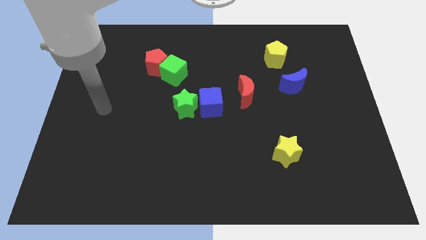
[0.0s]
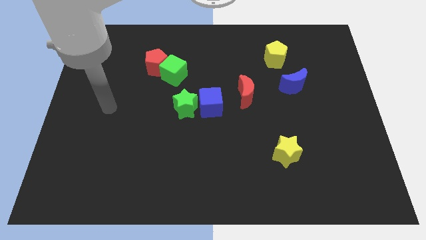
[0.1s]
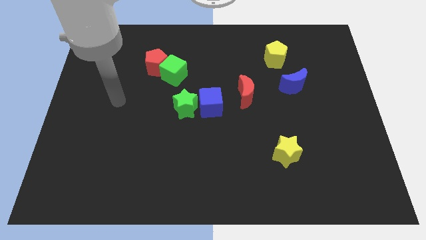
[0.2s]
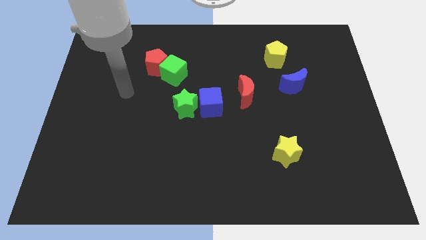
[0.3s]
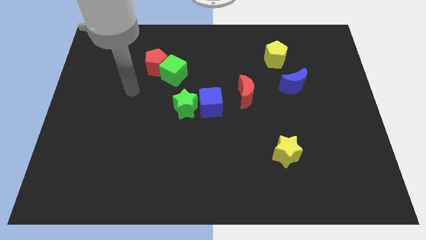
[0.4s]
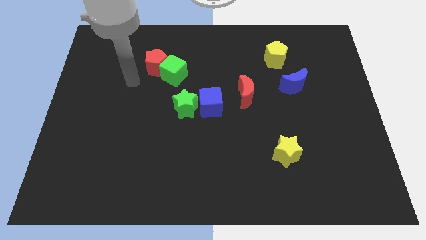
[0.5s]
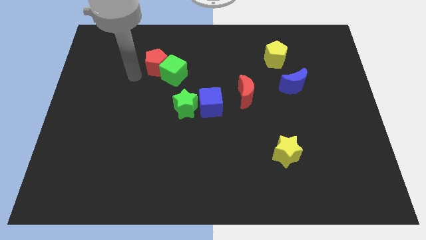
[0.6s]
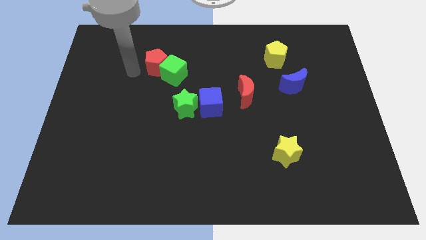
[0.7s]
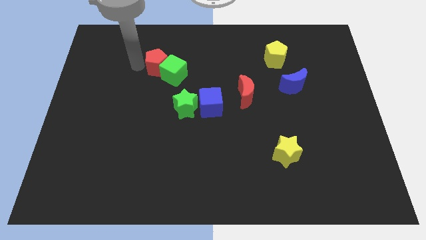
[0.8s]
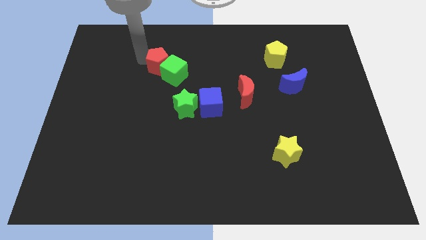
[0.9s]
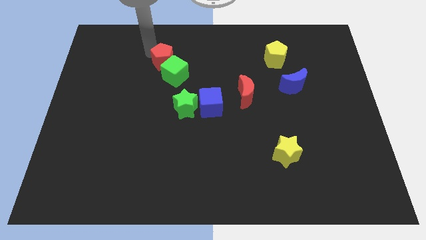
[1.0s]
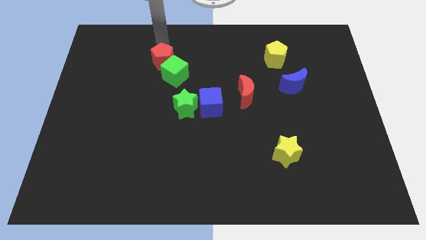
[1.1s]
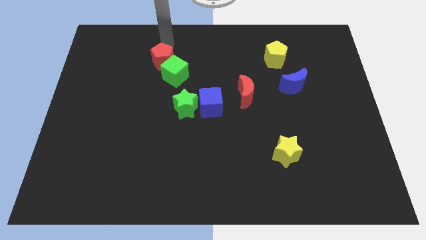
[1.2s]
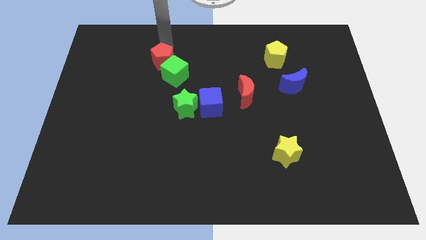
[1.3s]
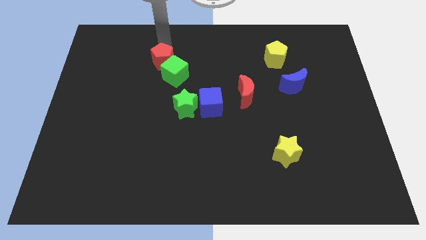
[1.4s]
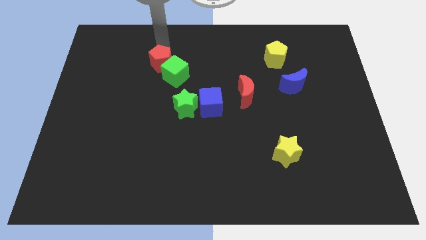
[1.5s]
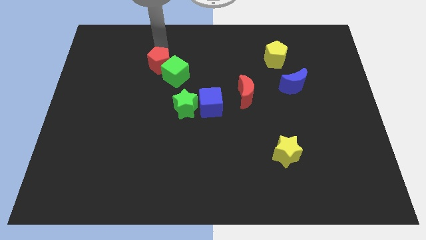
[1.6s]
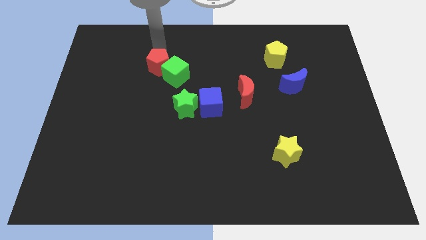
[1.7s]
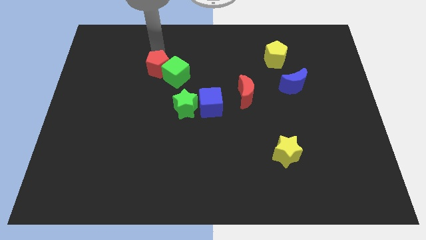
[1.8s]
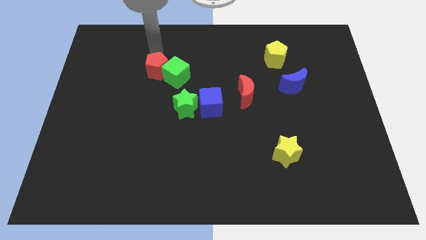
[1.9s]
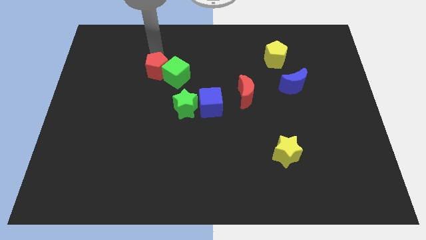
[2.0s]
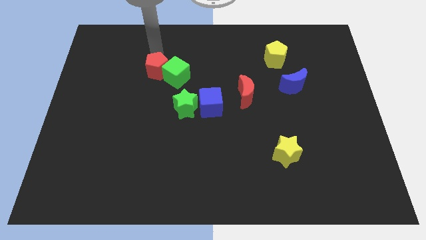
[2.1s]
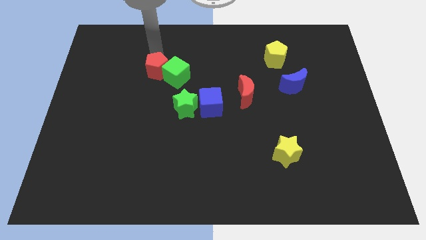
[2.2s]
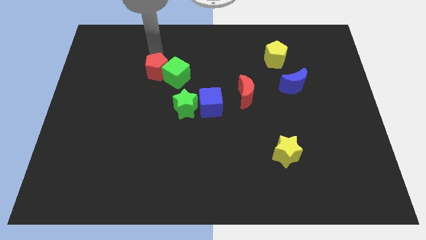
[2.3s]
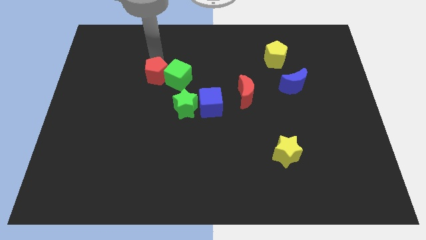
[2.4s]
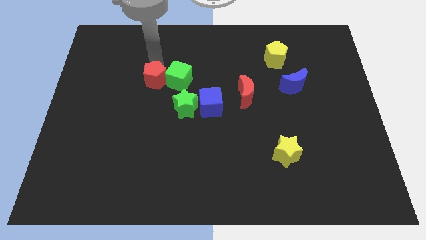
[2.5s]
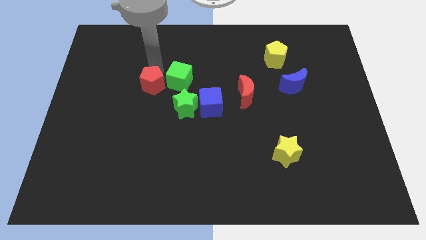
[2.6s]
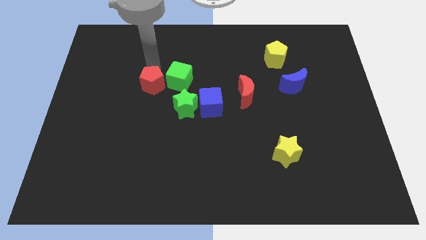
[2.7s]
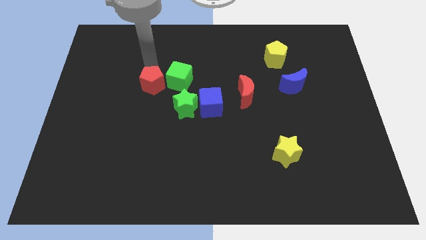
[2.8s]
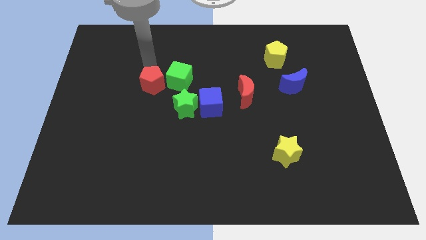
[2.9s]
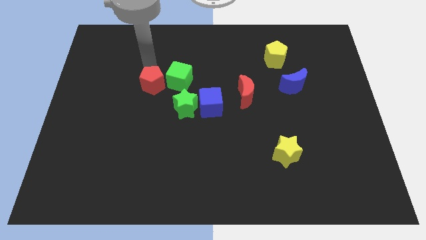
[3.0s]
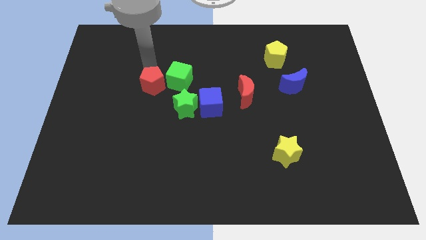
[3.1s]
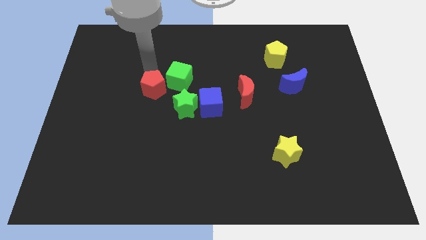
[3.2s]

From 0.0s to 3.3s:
push the red pentagon down a little

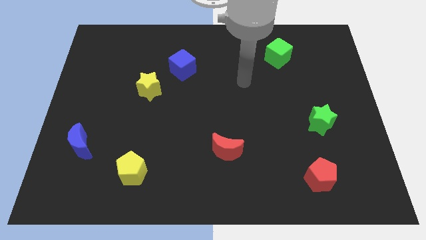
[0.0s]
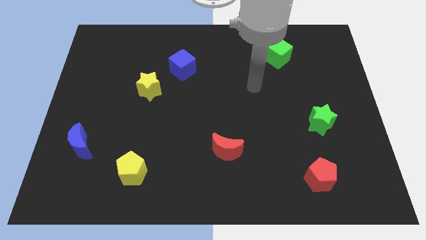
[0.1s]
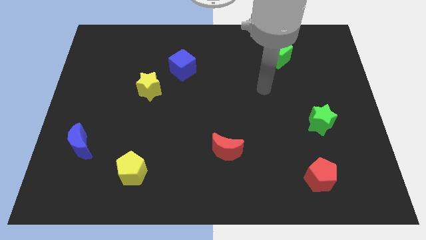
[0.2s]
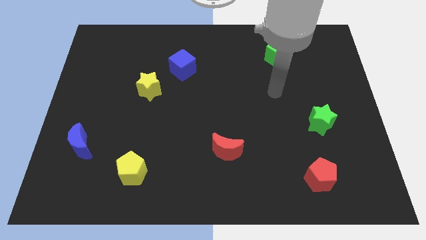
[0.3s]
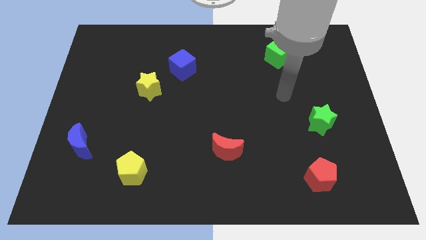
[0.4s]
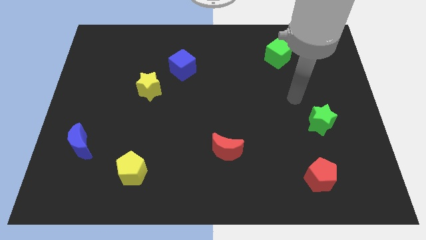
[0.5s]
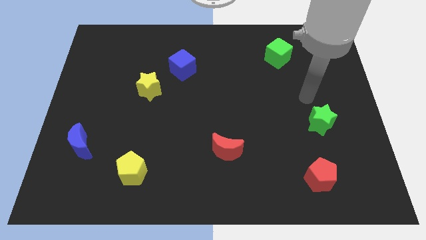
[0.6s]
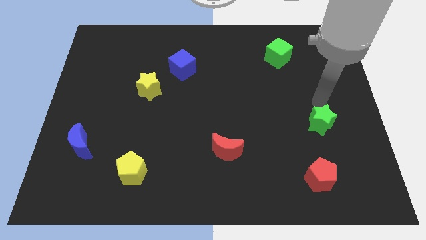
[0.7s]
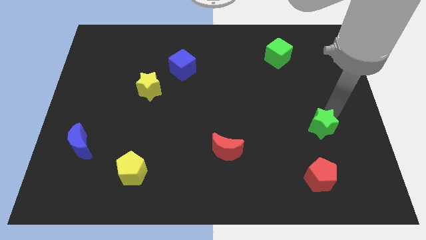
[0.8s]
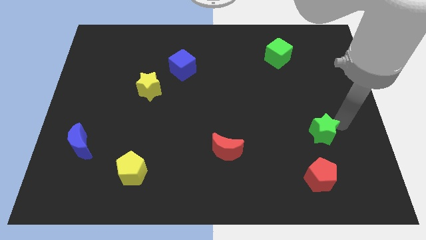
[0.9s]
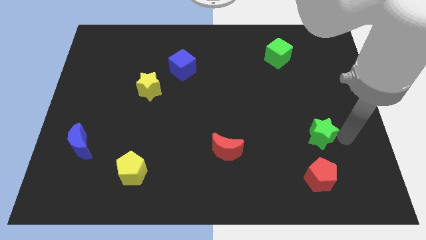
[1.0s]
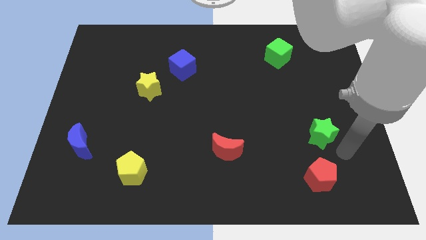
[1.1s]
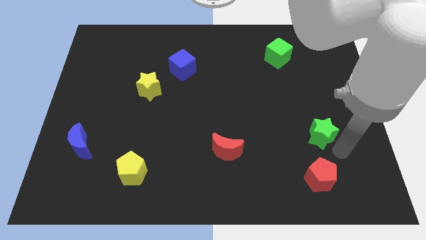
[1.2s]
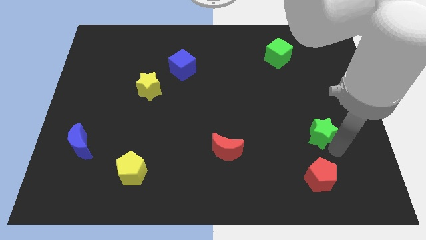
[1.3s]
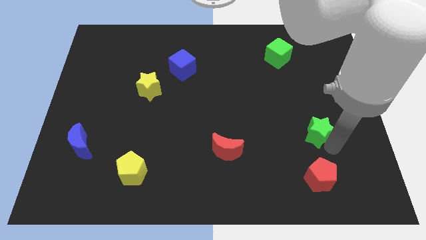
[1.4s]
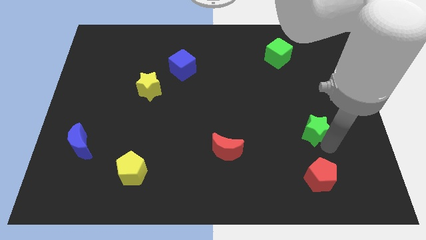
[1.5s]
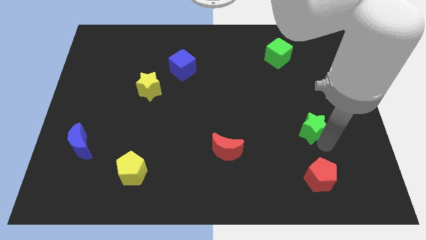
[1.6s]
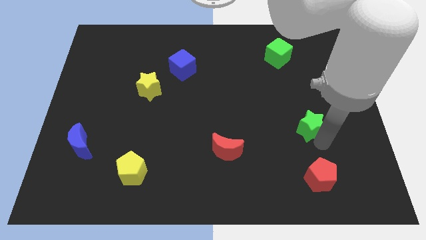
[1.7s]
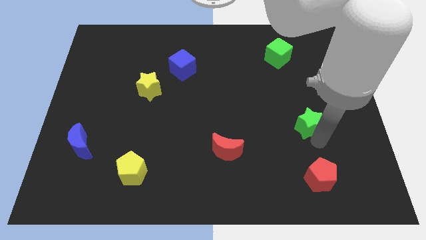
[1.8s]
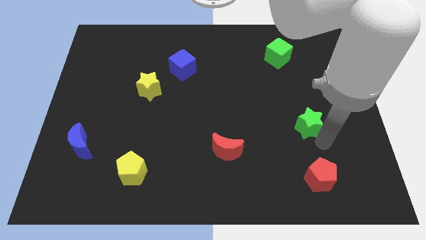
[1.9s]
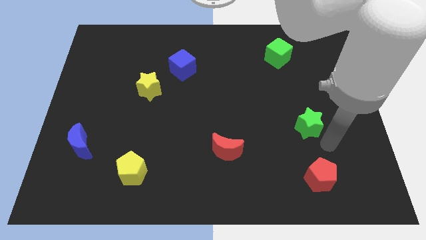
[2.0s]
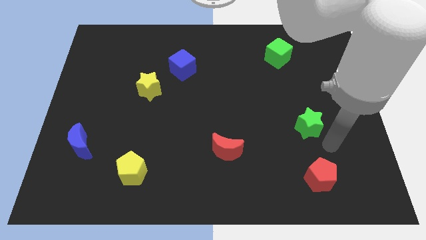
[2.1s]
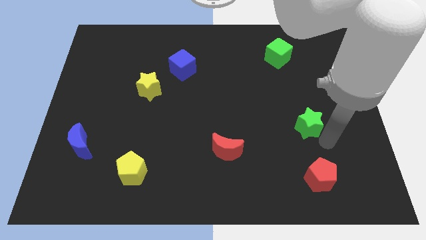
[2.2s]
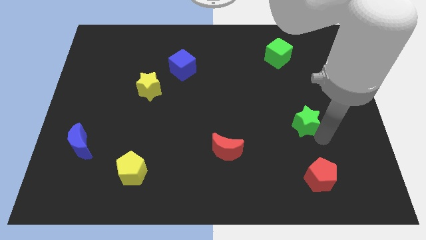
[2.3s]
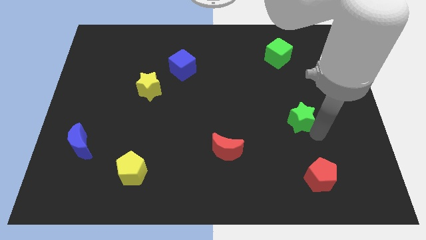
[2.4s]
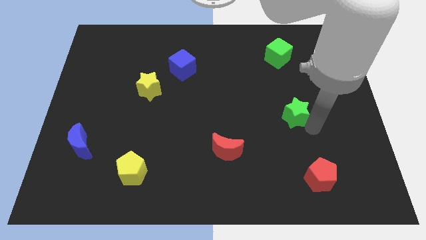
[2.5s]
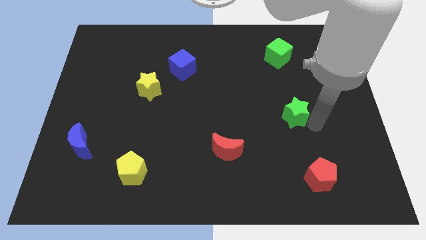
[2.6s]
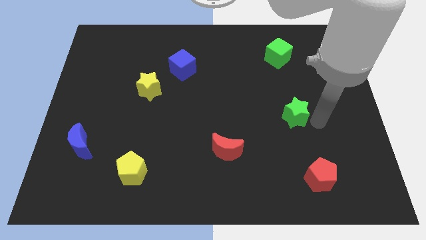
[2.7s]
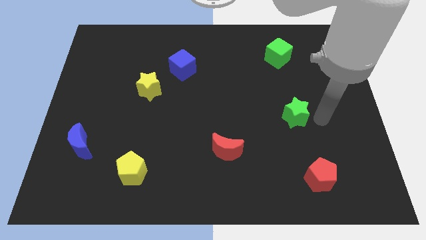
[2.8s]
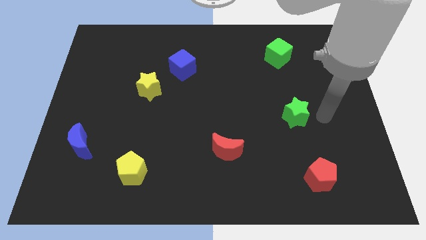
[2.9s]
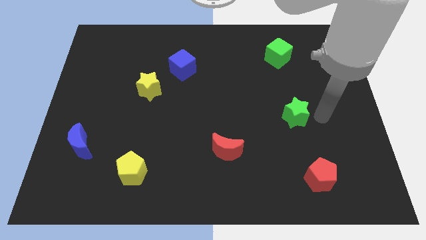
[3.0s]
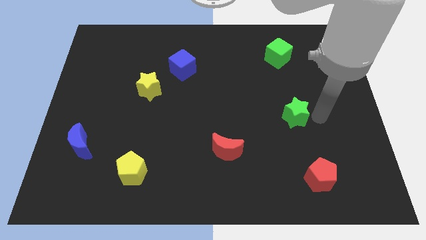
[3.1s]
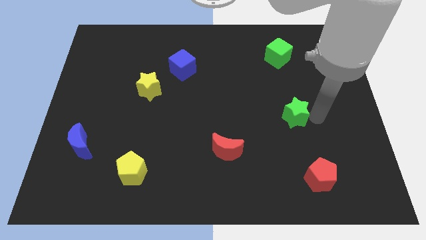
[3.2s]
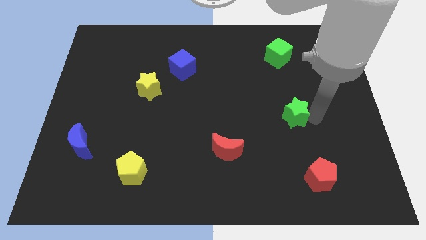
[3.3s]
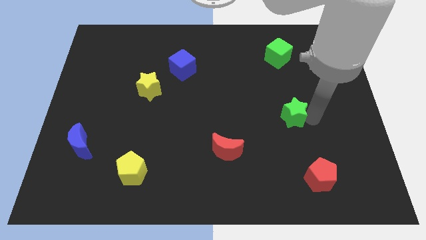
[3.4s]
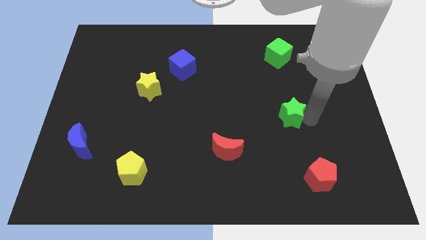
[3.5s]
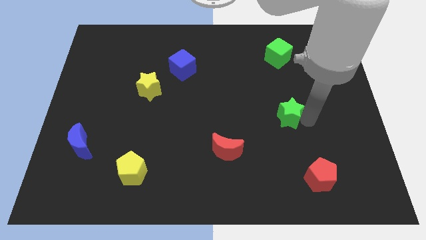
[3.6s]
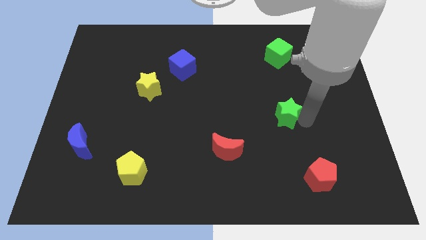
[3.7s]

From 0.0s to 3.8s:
push the green star slightly left

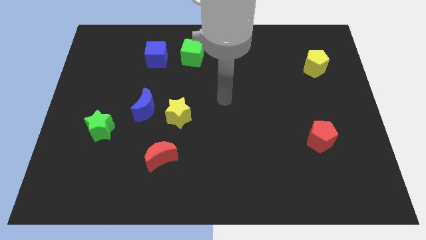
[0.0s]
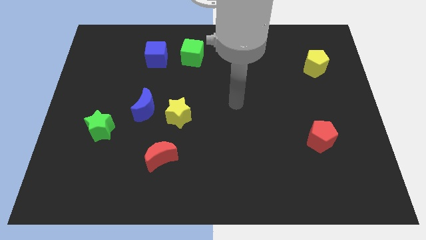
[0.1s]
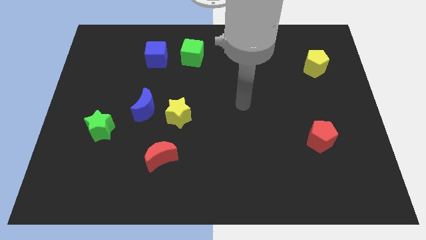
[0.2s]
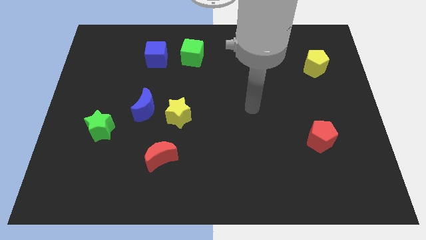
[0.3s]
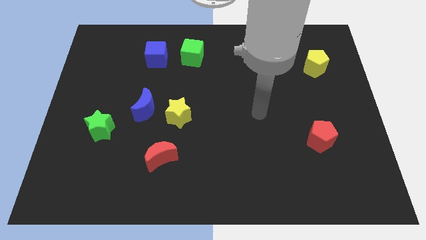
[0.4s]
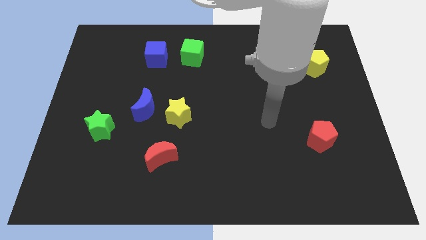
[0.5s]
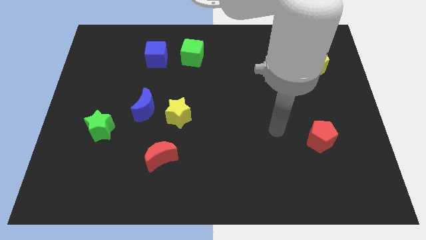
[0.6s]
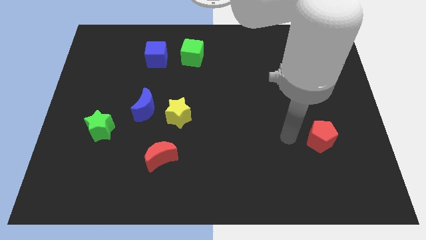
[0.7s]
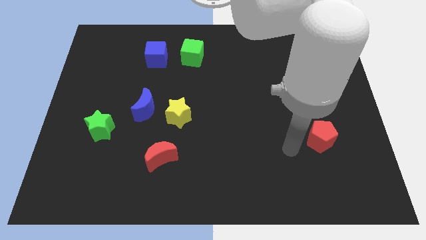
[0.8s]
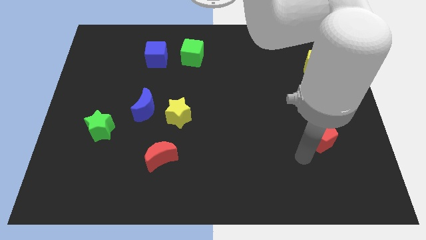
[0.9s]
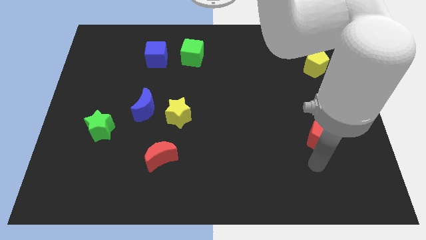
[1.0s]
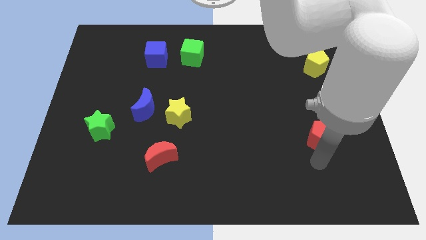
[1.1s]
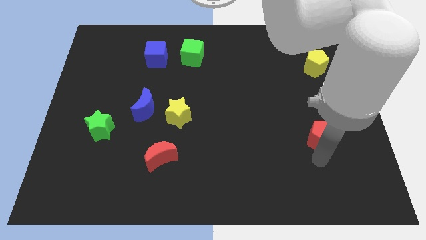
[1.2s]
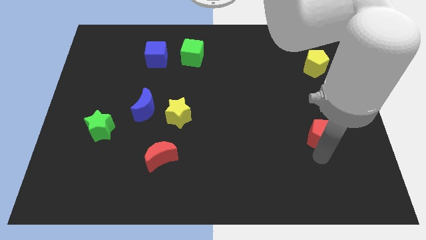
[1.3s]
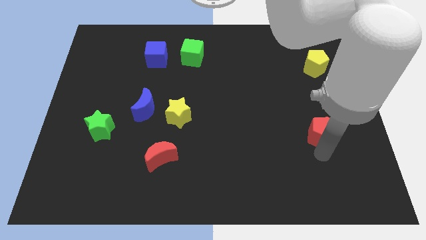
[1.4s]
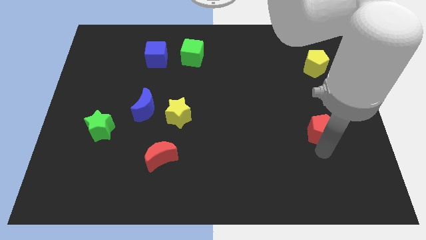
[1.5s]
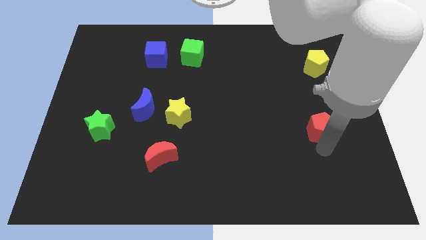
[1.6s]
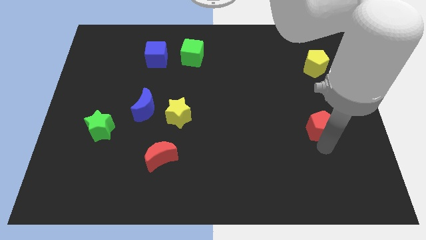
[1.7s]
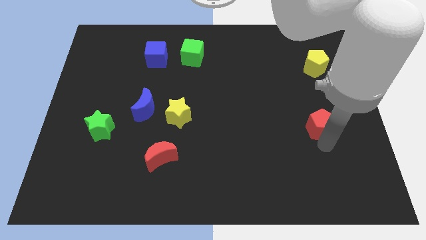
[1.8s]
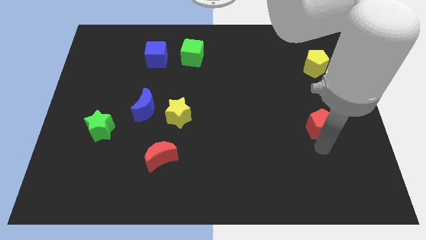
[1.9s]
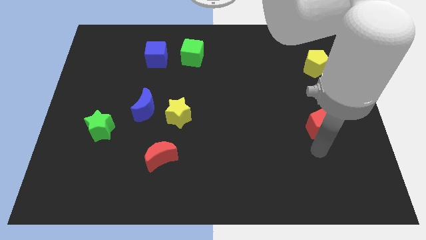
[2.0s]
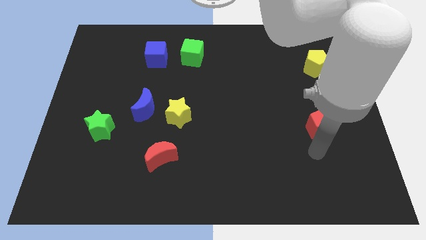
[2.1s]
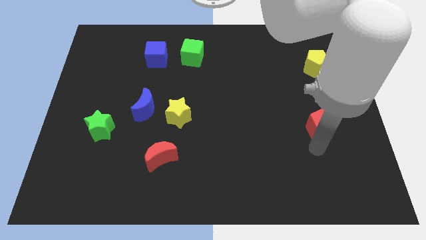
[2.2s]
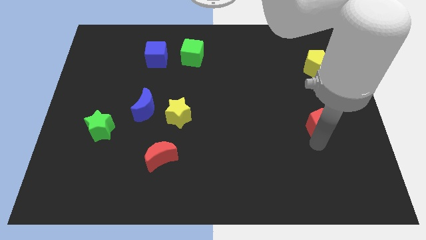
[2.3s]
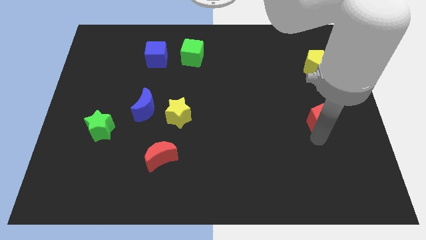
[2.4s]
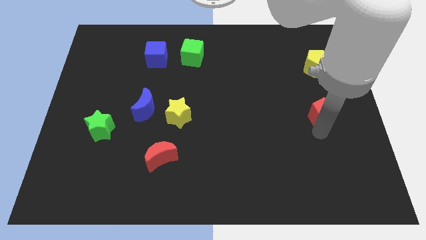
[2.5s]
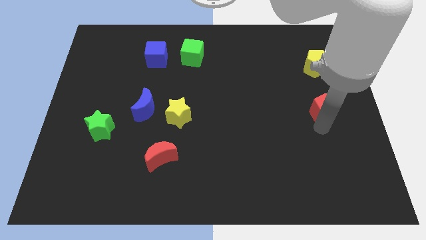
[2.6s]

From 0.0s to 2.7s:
move the red pentagon a little up
